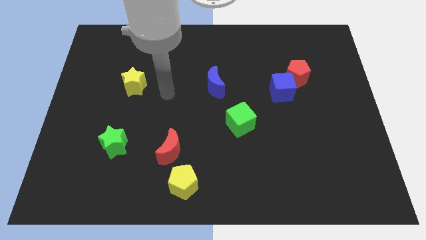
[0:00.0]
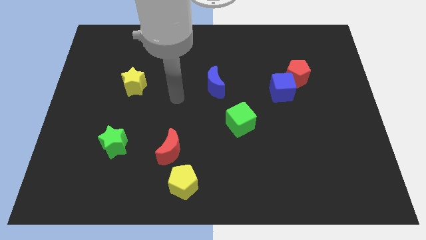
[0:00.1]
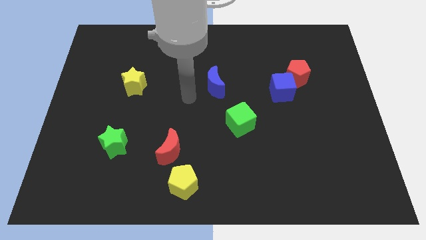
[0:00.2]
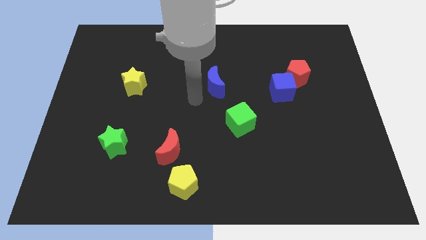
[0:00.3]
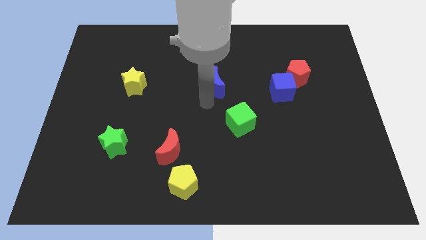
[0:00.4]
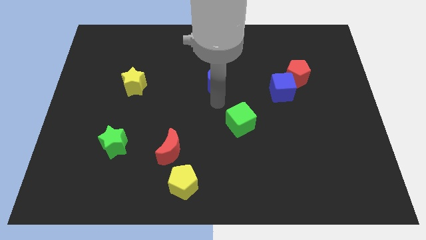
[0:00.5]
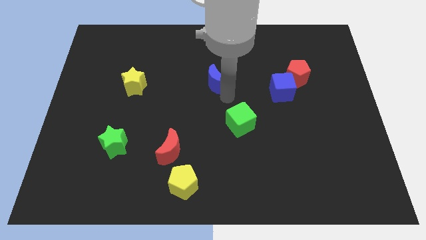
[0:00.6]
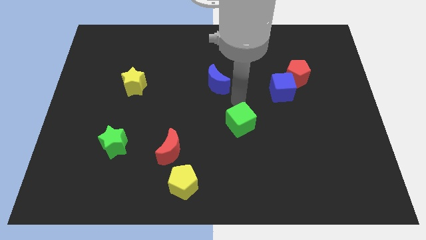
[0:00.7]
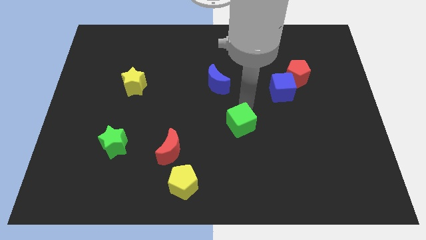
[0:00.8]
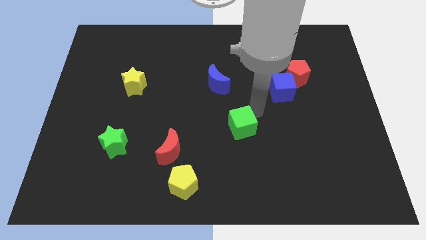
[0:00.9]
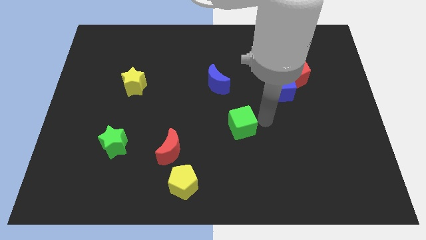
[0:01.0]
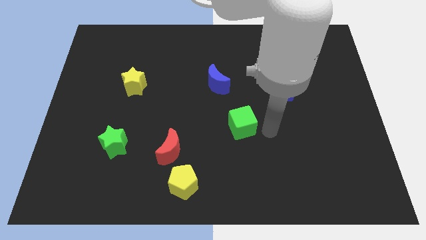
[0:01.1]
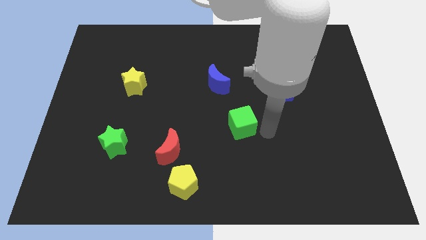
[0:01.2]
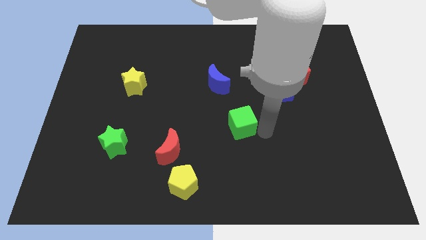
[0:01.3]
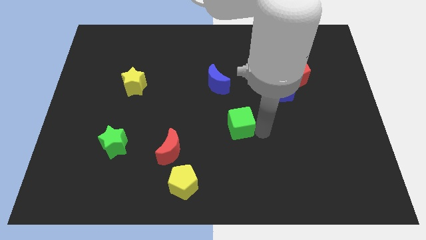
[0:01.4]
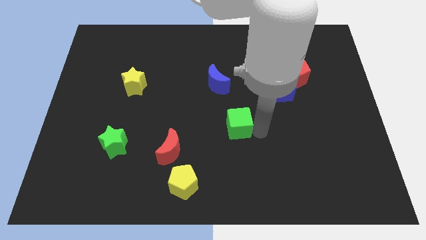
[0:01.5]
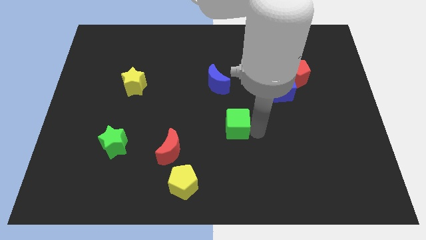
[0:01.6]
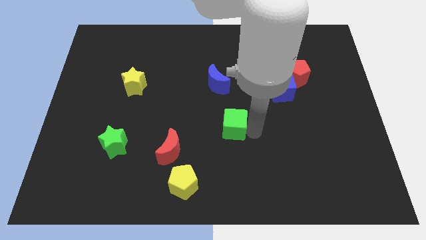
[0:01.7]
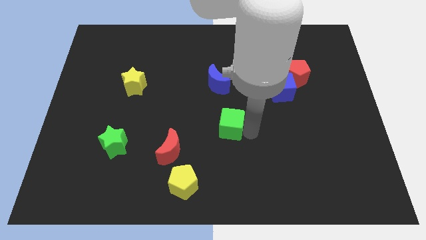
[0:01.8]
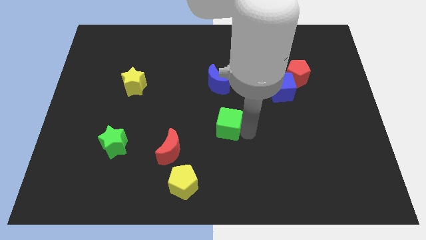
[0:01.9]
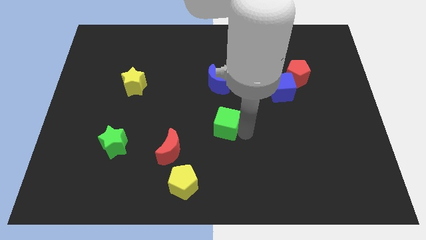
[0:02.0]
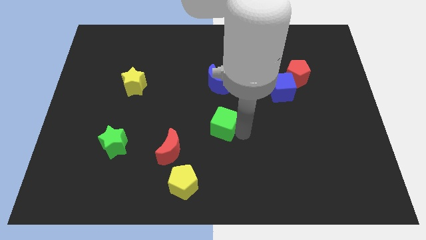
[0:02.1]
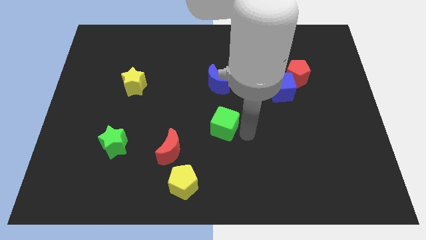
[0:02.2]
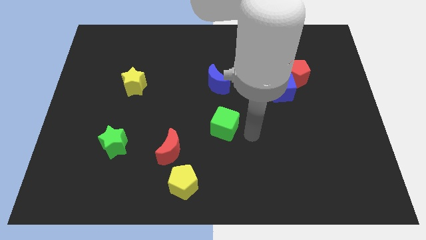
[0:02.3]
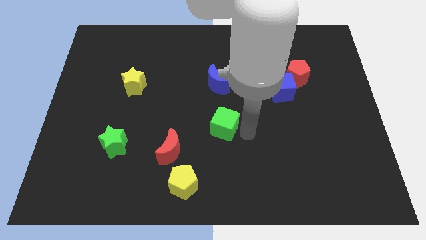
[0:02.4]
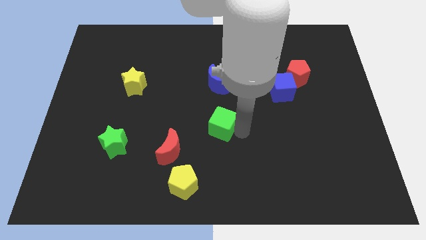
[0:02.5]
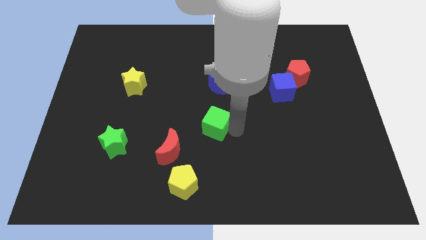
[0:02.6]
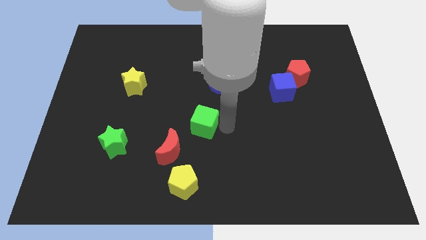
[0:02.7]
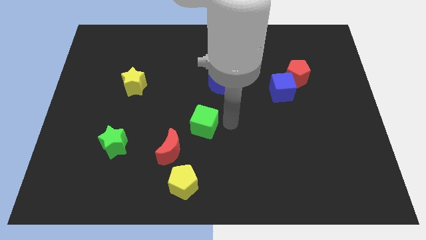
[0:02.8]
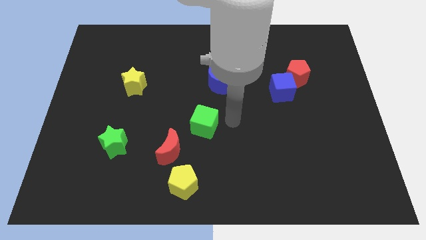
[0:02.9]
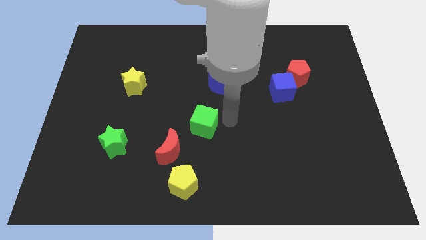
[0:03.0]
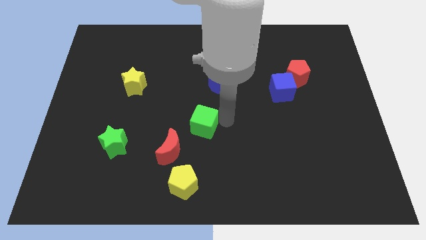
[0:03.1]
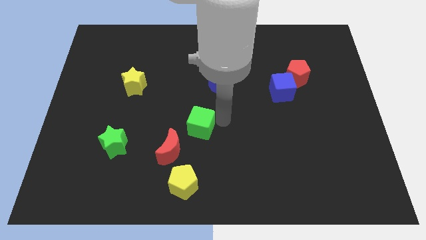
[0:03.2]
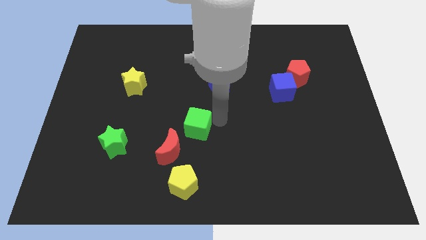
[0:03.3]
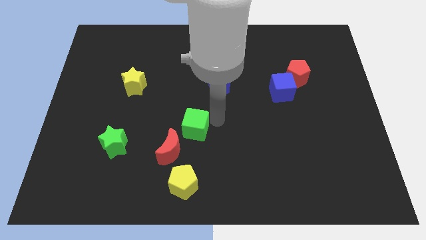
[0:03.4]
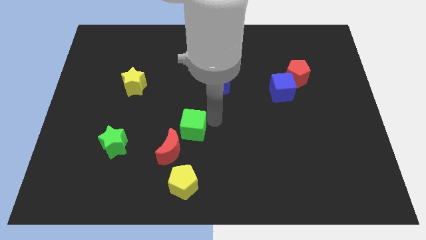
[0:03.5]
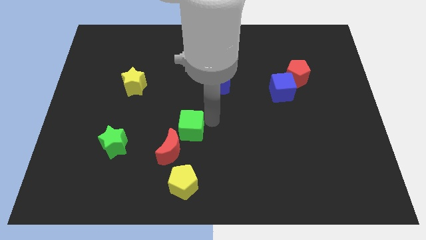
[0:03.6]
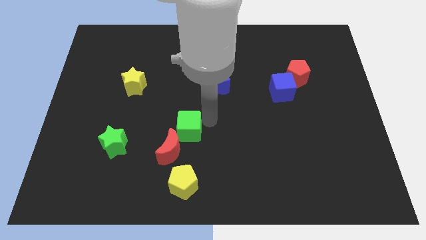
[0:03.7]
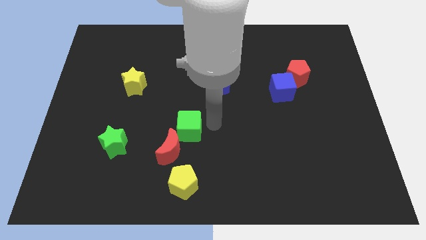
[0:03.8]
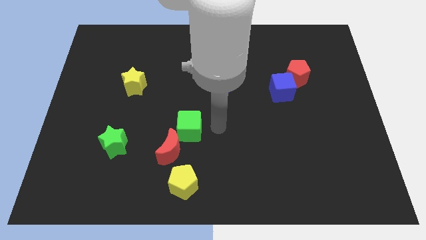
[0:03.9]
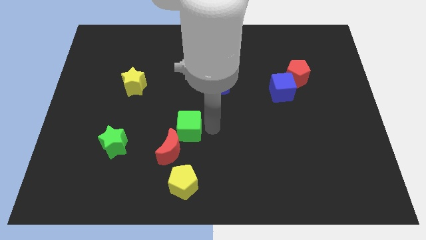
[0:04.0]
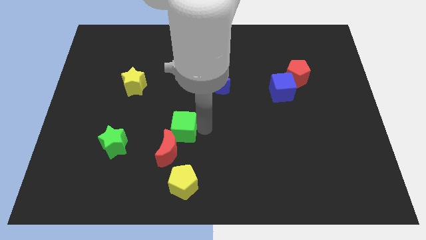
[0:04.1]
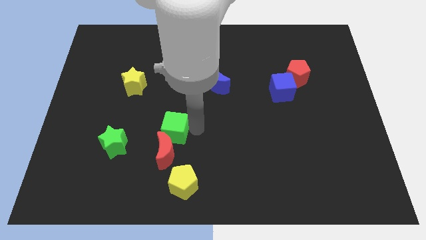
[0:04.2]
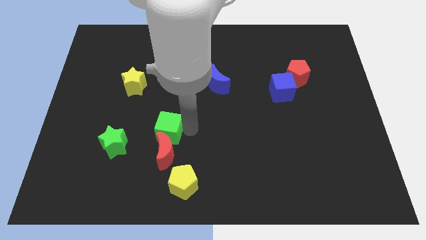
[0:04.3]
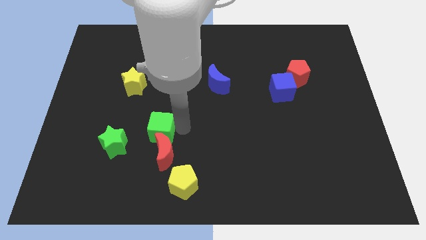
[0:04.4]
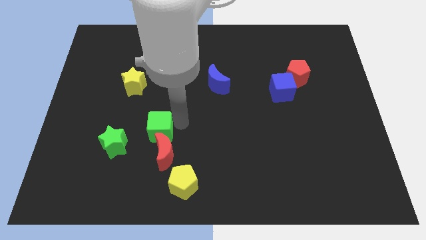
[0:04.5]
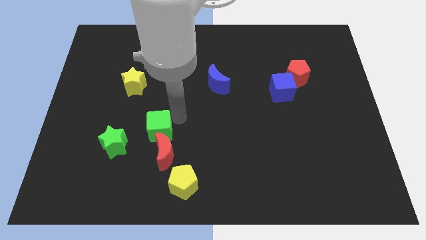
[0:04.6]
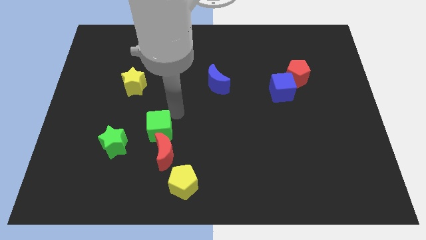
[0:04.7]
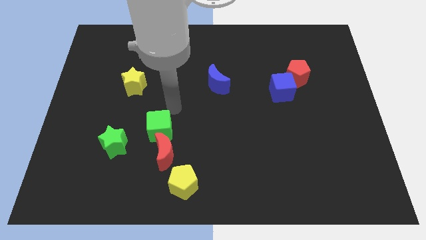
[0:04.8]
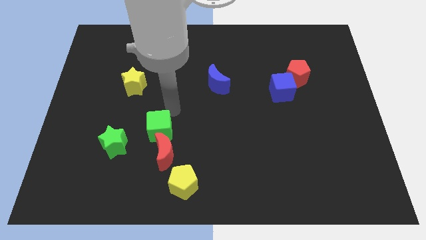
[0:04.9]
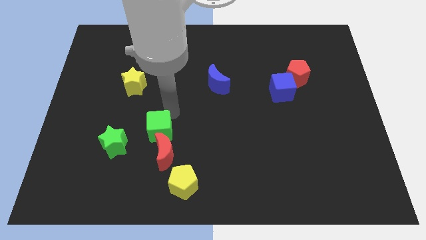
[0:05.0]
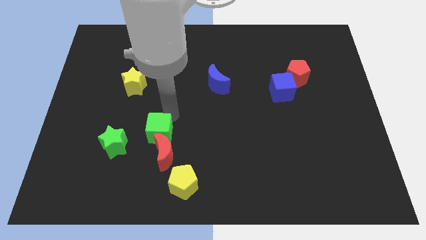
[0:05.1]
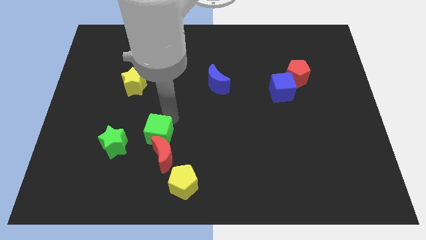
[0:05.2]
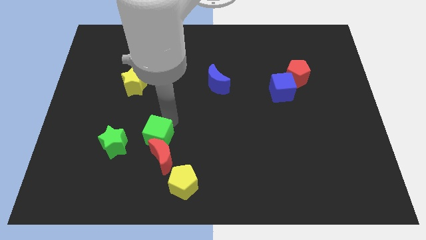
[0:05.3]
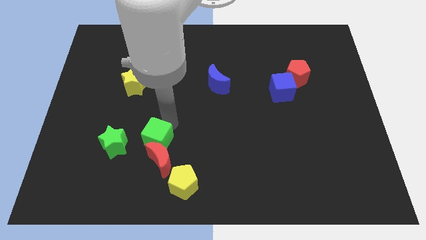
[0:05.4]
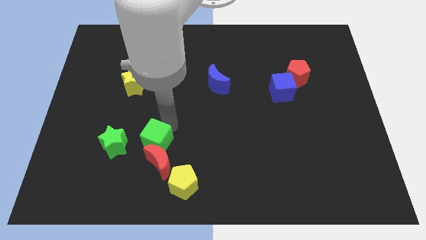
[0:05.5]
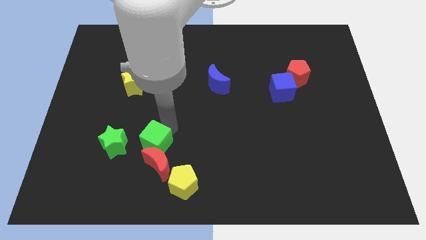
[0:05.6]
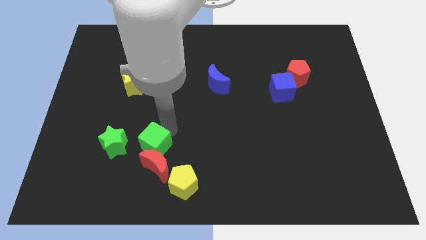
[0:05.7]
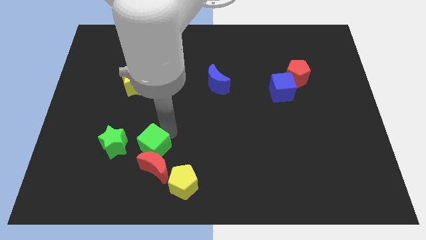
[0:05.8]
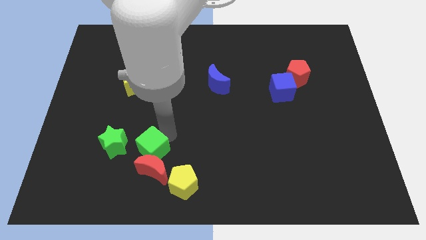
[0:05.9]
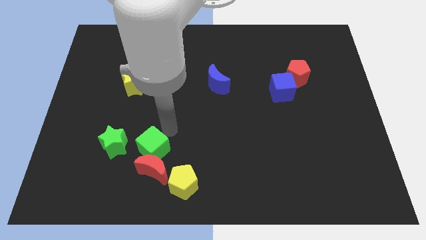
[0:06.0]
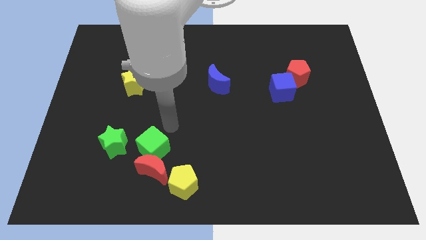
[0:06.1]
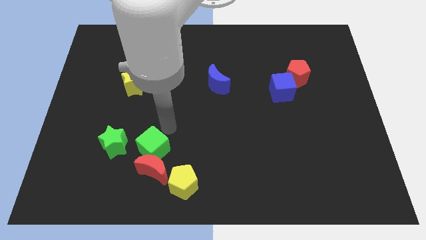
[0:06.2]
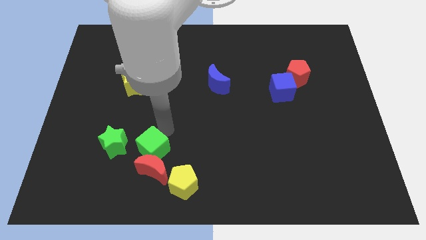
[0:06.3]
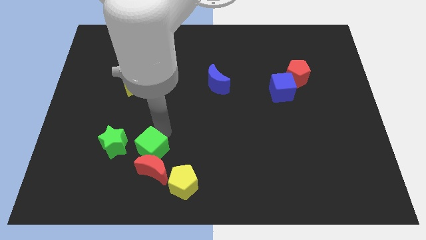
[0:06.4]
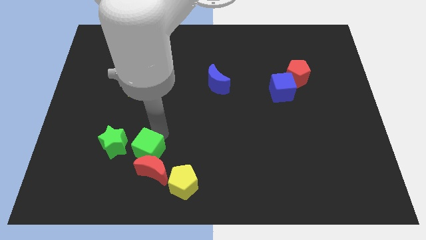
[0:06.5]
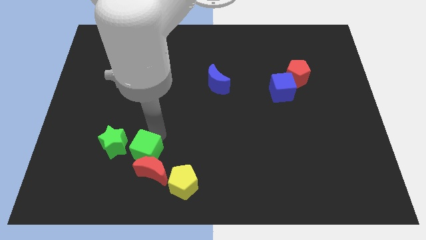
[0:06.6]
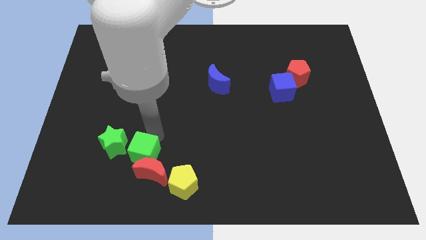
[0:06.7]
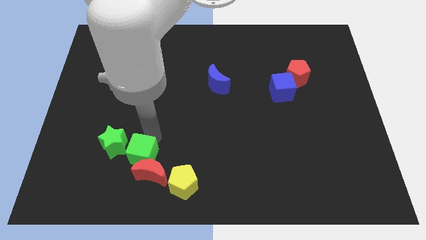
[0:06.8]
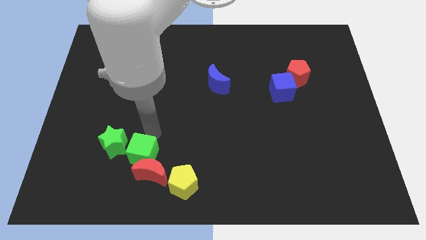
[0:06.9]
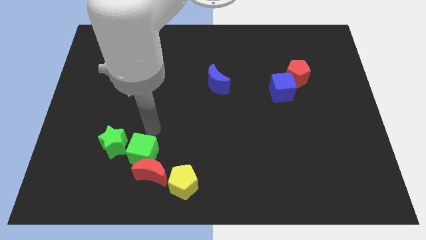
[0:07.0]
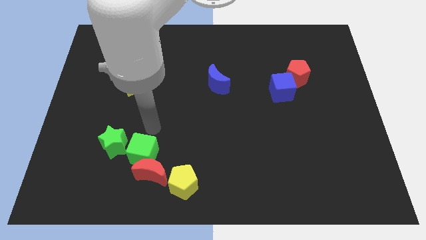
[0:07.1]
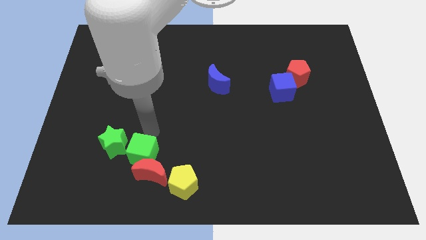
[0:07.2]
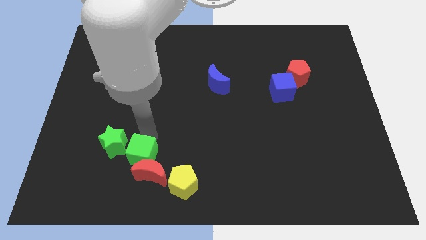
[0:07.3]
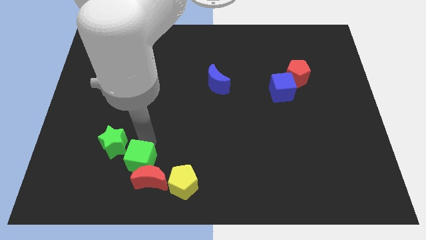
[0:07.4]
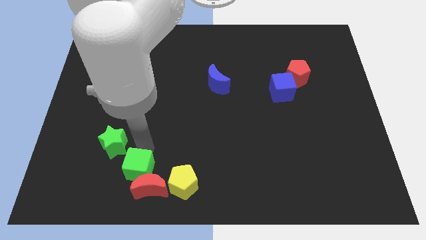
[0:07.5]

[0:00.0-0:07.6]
move the green cube just left of the yellow pentagon
